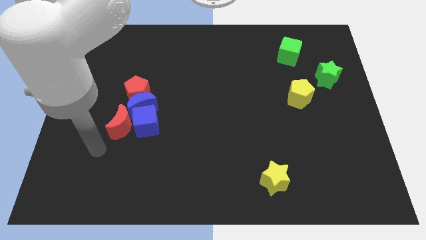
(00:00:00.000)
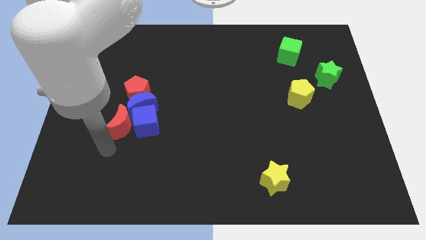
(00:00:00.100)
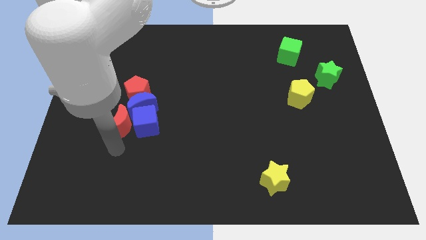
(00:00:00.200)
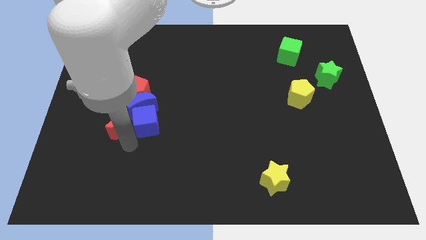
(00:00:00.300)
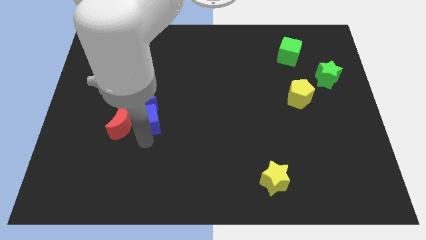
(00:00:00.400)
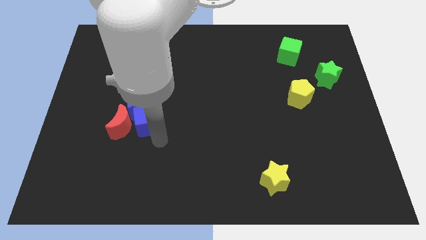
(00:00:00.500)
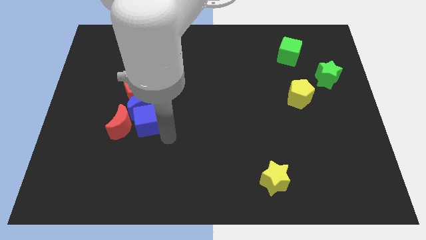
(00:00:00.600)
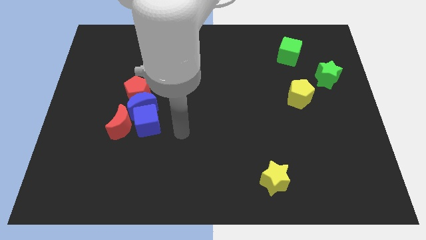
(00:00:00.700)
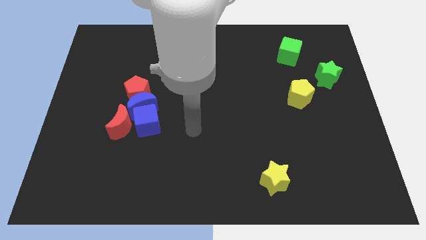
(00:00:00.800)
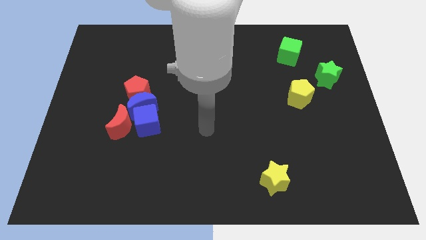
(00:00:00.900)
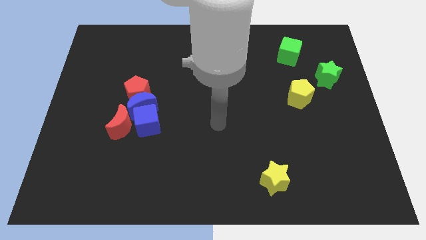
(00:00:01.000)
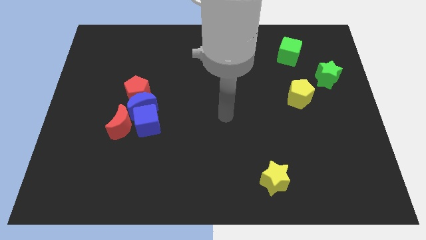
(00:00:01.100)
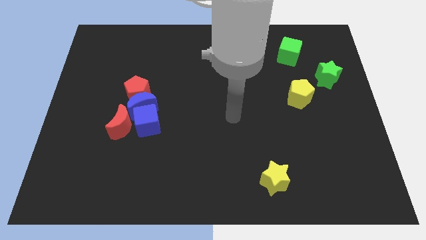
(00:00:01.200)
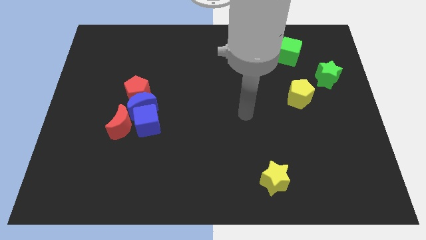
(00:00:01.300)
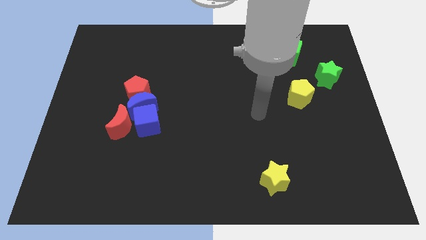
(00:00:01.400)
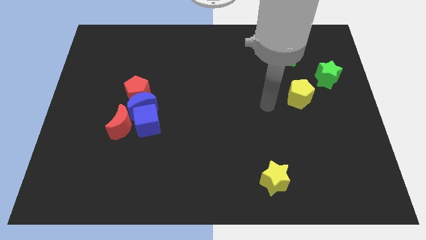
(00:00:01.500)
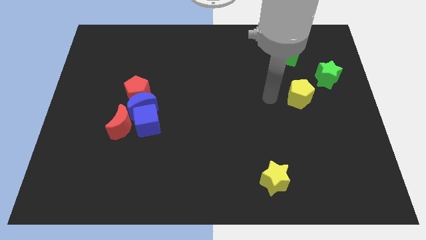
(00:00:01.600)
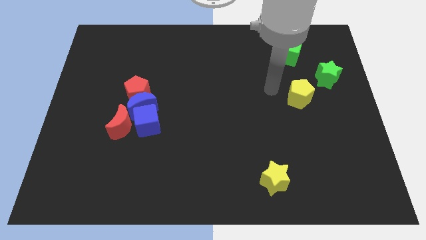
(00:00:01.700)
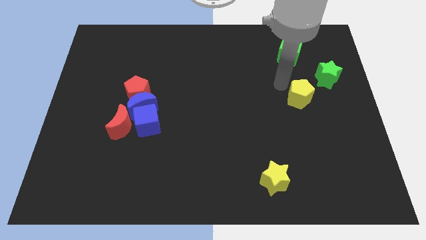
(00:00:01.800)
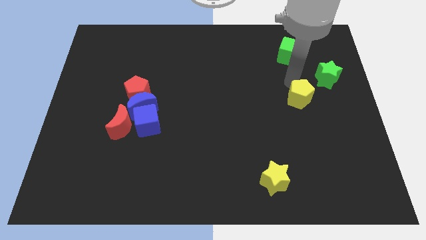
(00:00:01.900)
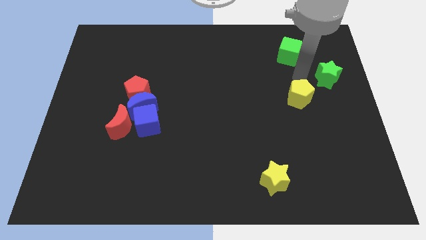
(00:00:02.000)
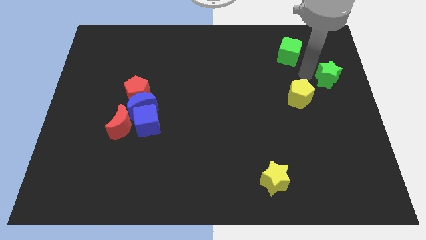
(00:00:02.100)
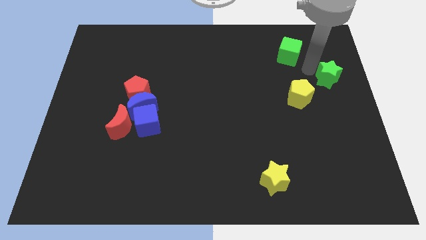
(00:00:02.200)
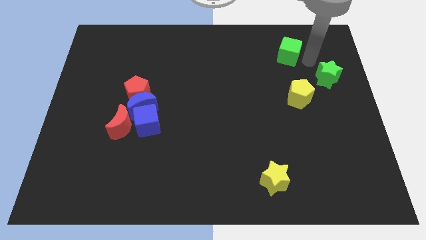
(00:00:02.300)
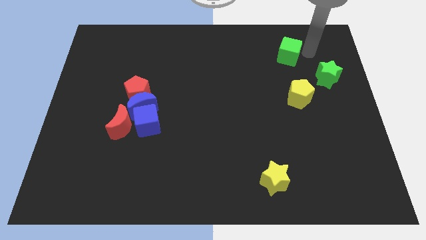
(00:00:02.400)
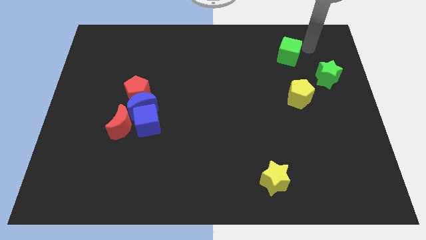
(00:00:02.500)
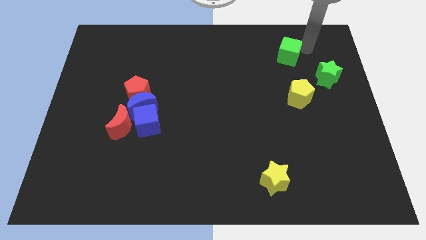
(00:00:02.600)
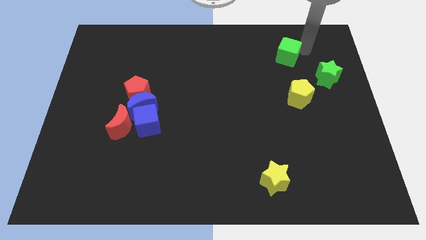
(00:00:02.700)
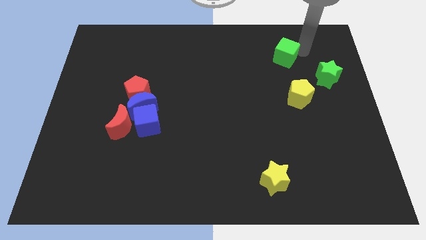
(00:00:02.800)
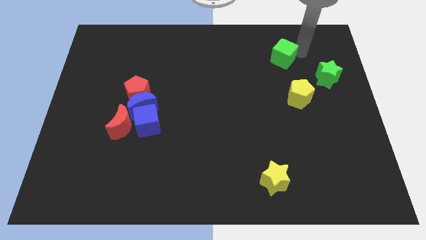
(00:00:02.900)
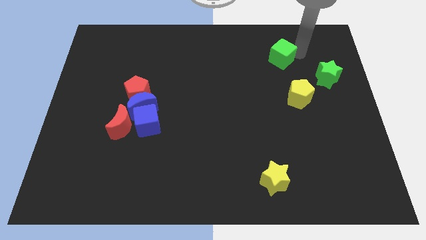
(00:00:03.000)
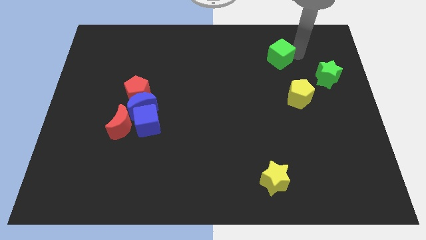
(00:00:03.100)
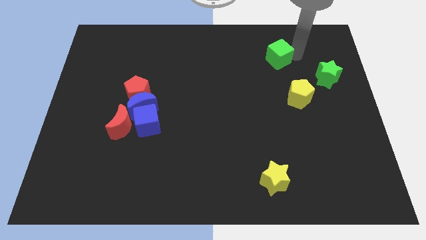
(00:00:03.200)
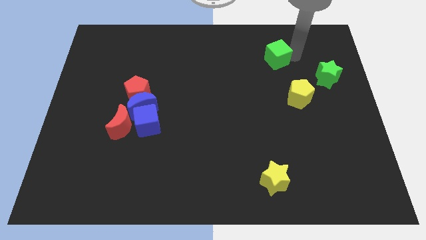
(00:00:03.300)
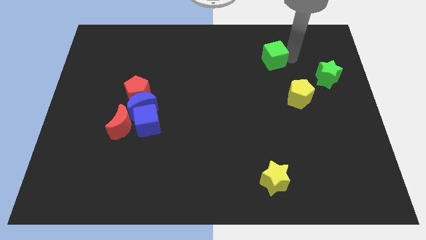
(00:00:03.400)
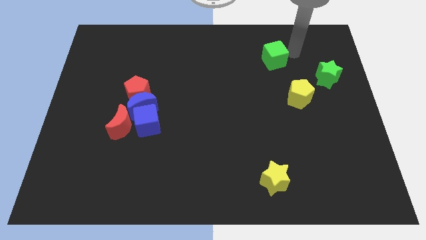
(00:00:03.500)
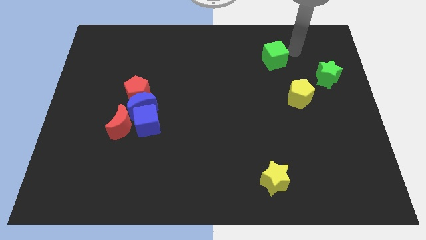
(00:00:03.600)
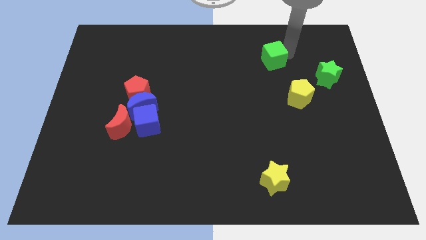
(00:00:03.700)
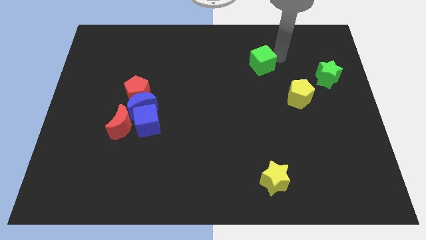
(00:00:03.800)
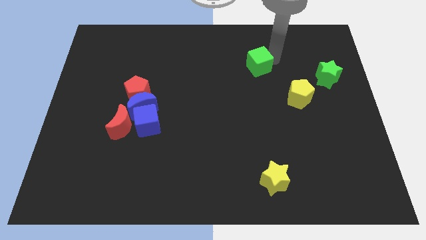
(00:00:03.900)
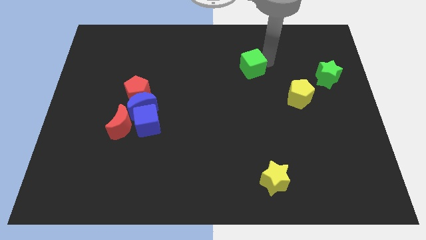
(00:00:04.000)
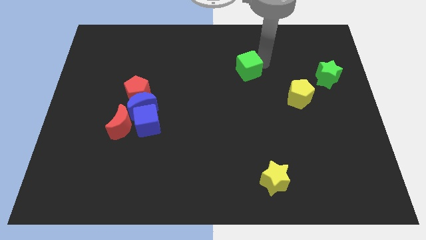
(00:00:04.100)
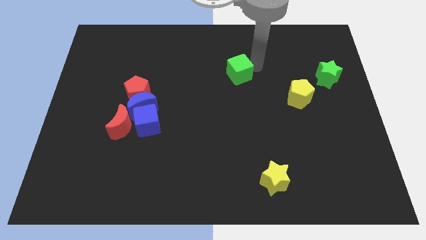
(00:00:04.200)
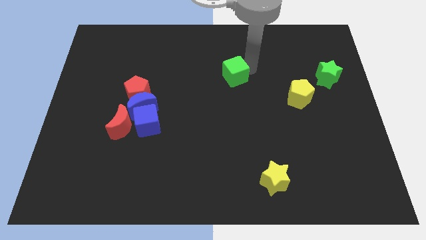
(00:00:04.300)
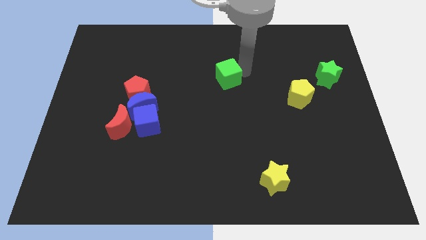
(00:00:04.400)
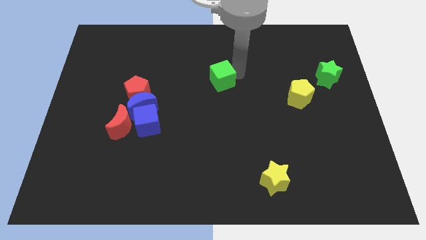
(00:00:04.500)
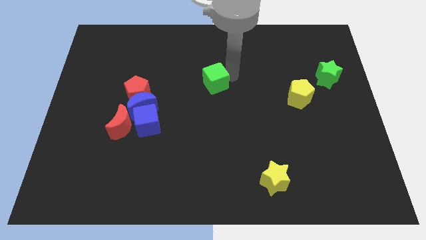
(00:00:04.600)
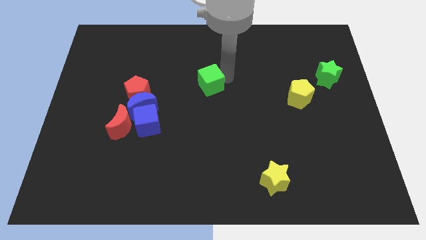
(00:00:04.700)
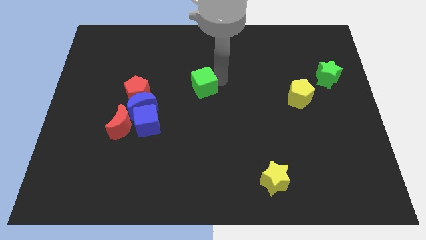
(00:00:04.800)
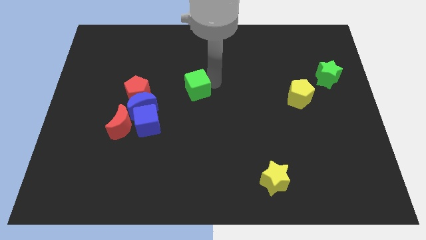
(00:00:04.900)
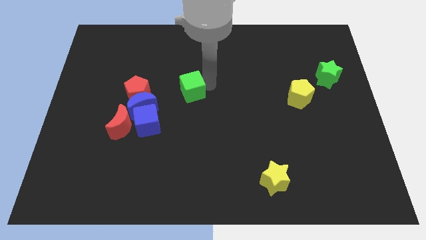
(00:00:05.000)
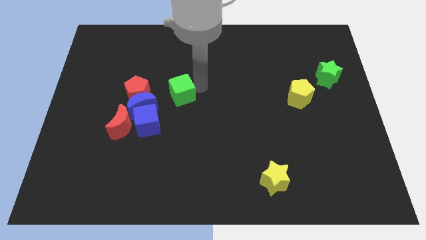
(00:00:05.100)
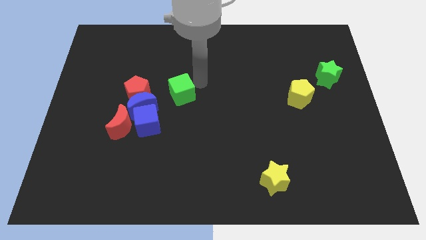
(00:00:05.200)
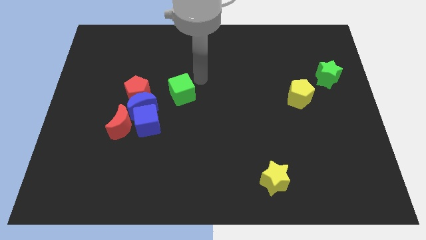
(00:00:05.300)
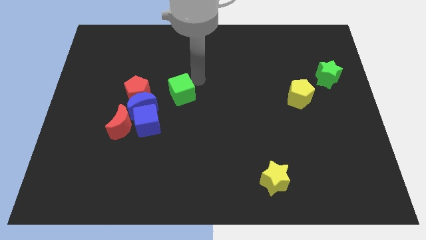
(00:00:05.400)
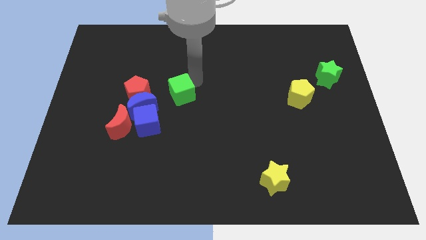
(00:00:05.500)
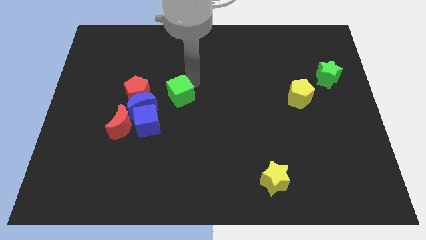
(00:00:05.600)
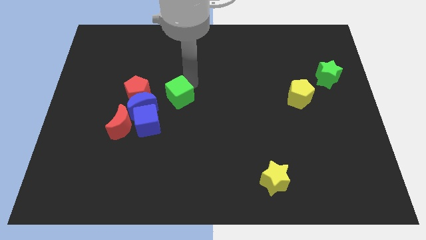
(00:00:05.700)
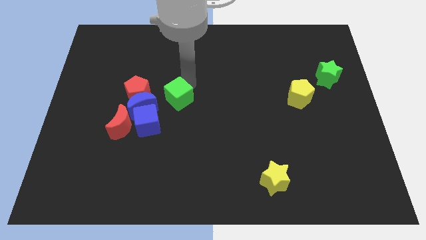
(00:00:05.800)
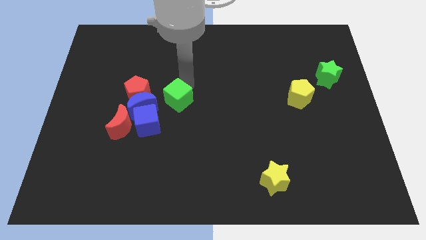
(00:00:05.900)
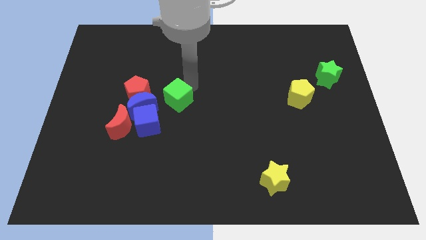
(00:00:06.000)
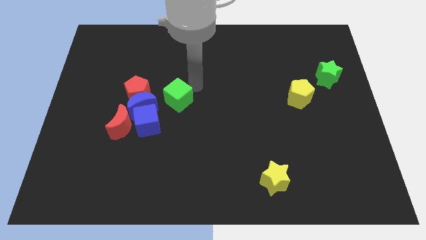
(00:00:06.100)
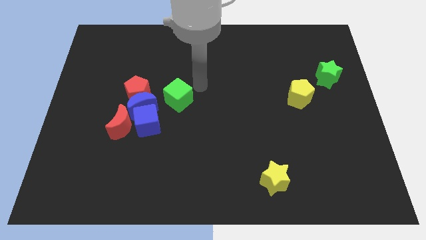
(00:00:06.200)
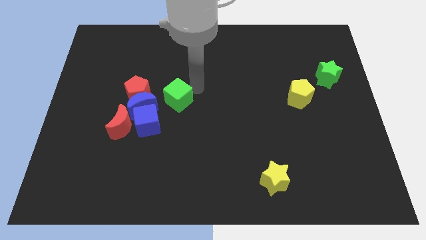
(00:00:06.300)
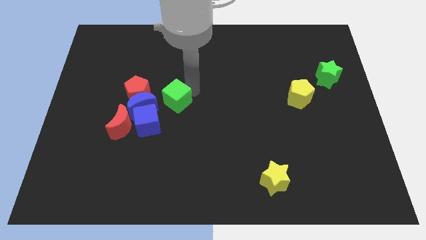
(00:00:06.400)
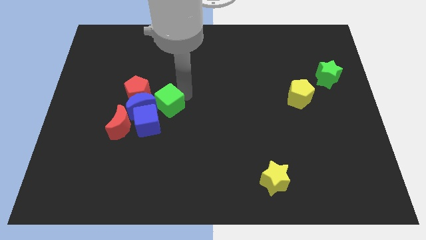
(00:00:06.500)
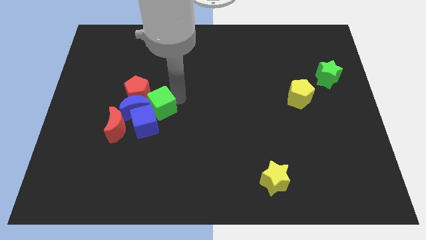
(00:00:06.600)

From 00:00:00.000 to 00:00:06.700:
push the green cube next to the blue cube

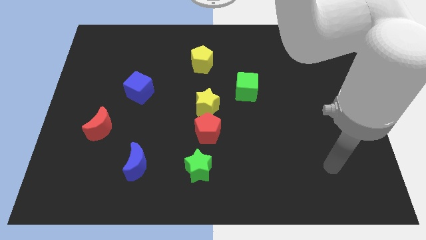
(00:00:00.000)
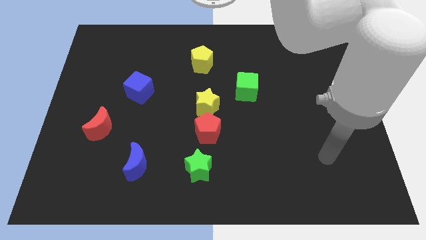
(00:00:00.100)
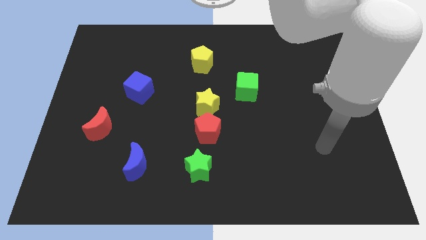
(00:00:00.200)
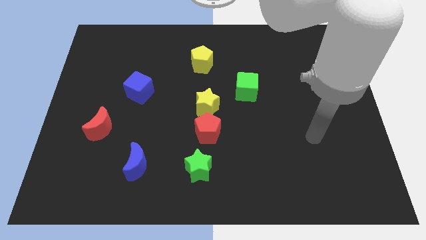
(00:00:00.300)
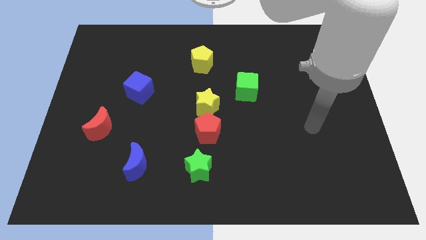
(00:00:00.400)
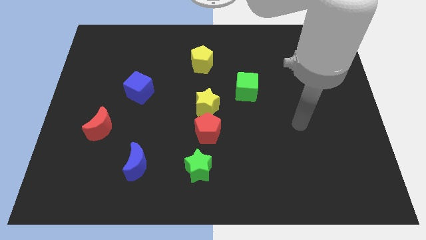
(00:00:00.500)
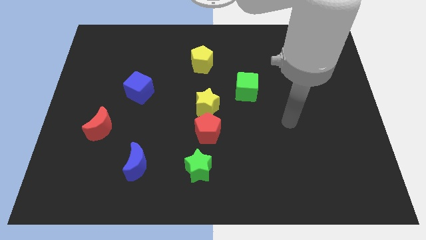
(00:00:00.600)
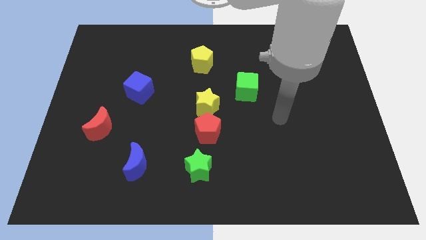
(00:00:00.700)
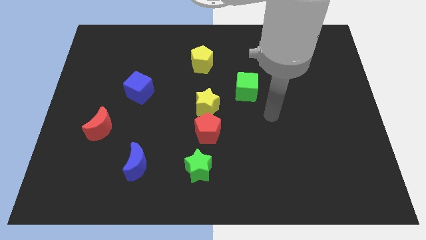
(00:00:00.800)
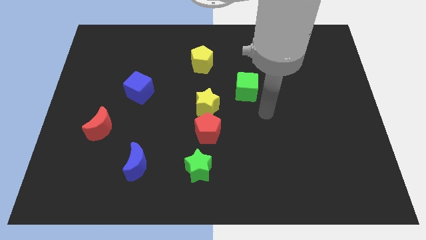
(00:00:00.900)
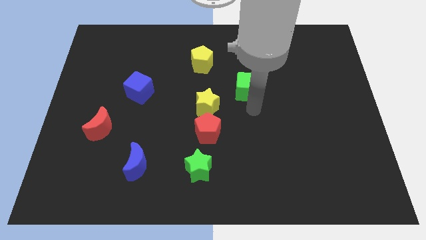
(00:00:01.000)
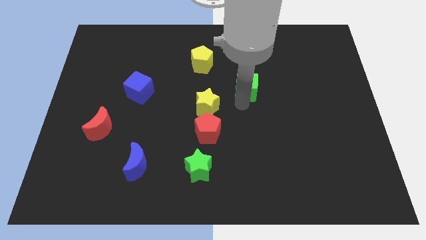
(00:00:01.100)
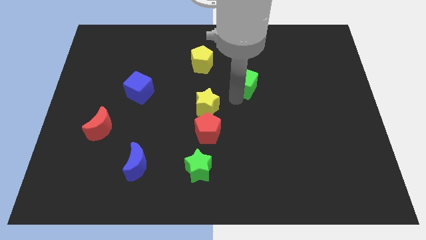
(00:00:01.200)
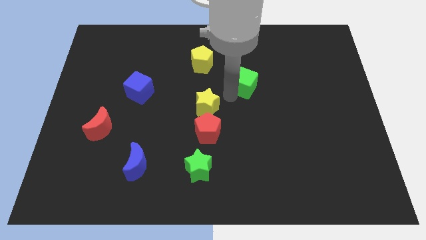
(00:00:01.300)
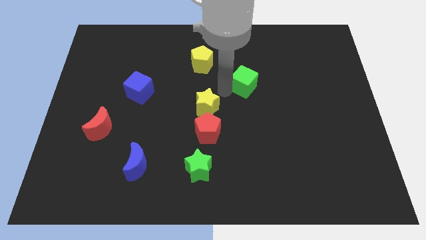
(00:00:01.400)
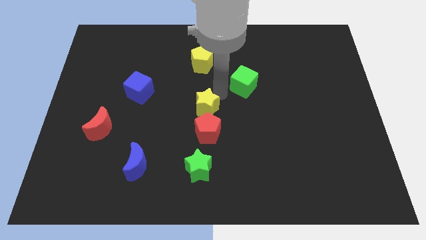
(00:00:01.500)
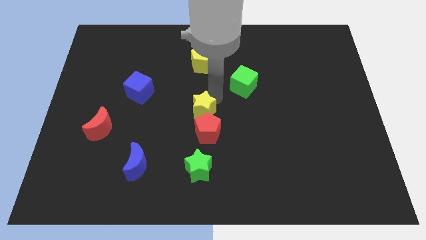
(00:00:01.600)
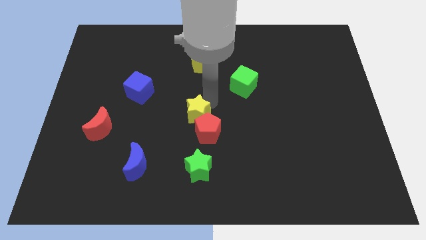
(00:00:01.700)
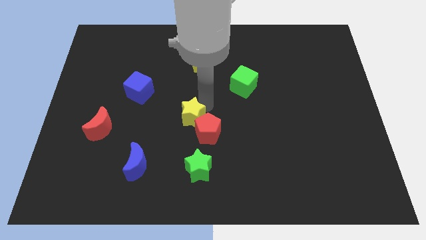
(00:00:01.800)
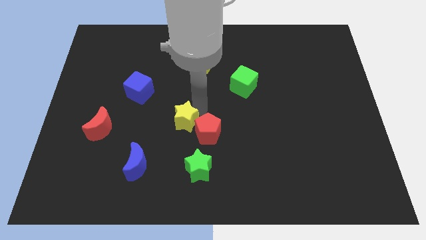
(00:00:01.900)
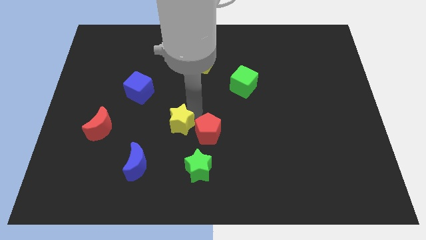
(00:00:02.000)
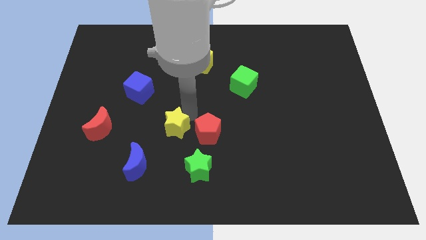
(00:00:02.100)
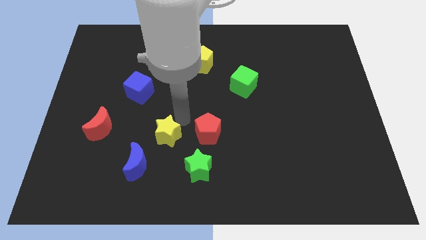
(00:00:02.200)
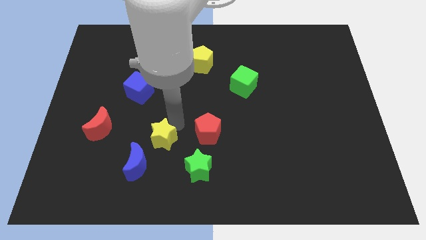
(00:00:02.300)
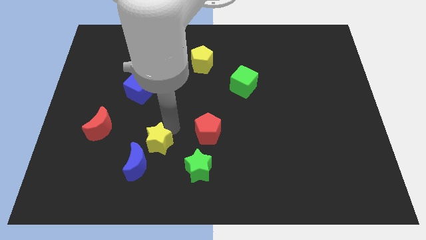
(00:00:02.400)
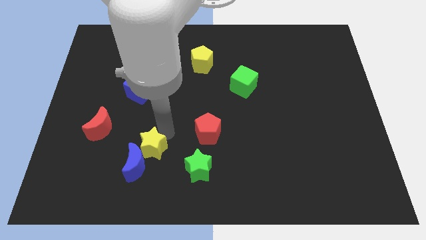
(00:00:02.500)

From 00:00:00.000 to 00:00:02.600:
put the yellow star to the blue moon
